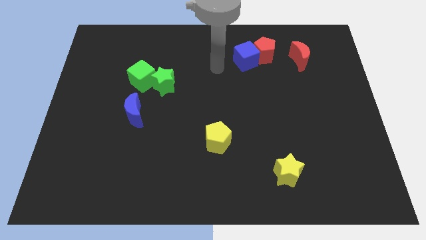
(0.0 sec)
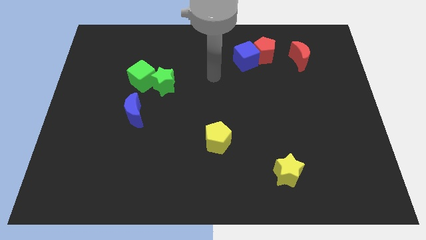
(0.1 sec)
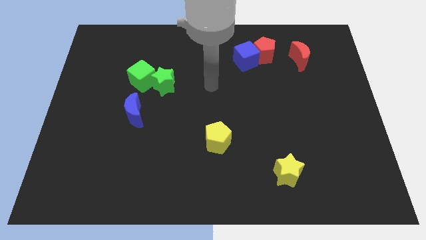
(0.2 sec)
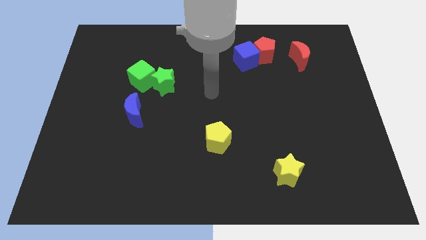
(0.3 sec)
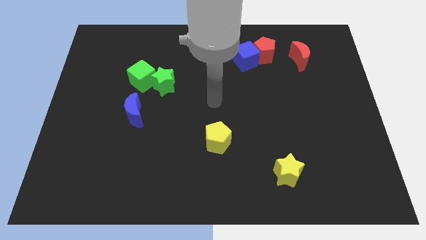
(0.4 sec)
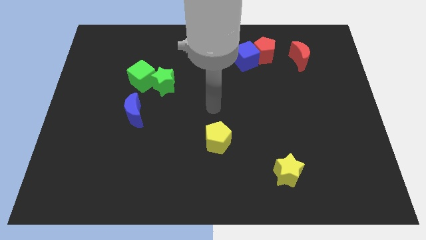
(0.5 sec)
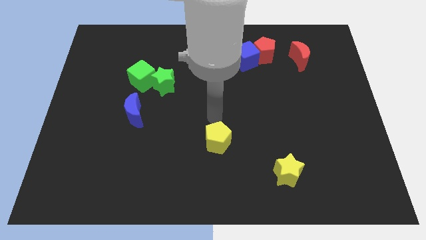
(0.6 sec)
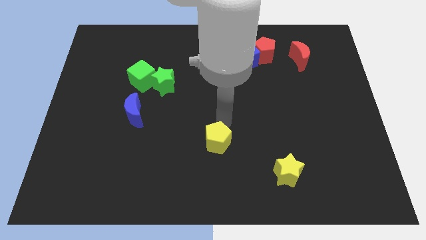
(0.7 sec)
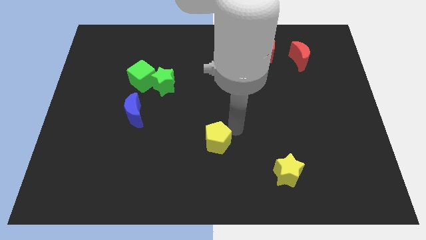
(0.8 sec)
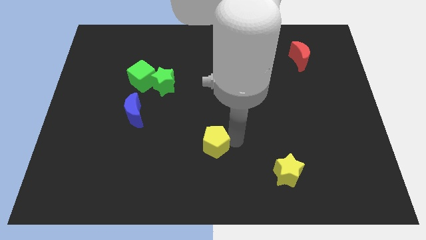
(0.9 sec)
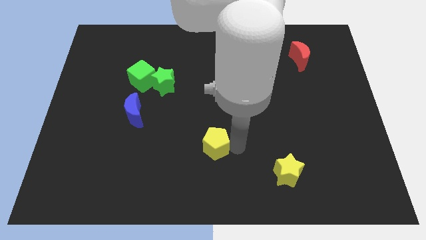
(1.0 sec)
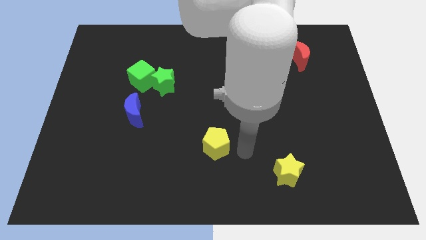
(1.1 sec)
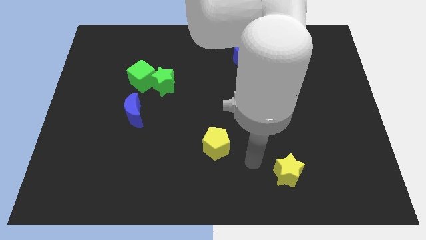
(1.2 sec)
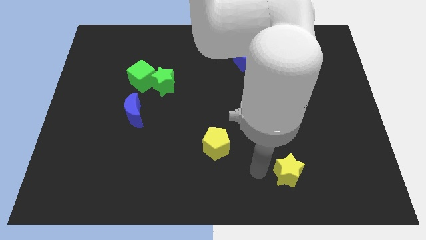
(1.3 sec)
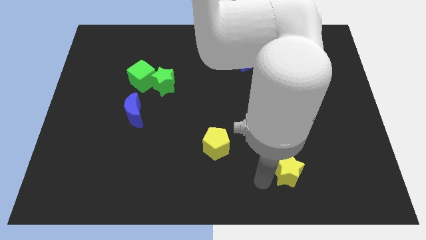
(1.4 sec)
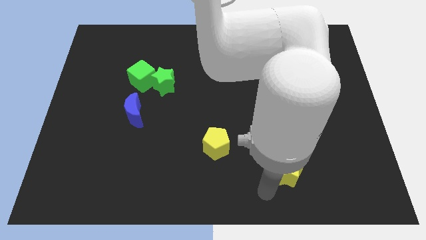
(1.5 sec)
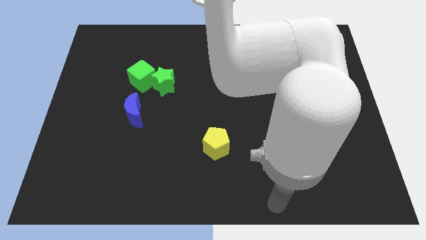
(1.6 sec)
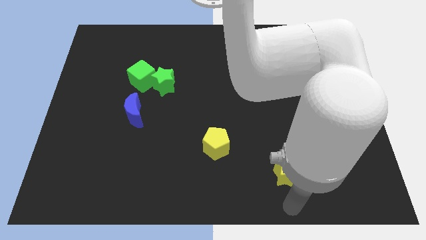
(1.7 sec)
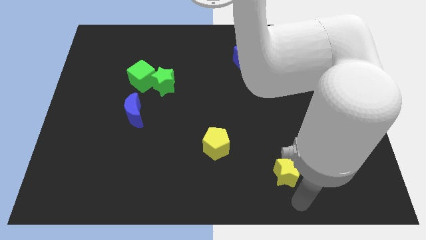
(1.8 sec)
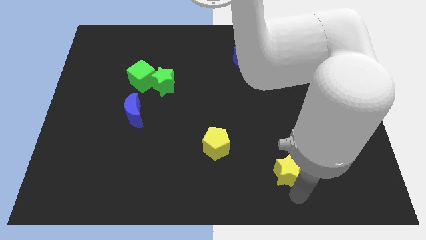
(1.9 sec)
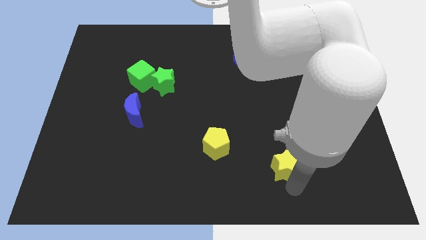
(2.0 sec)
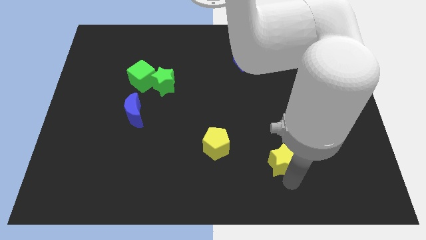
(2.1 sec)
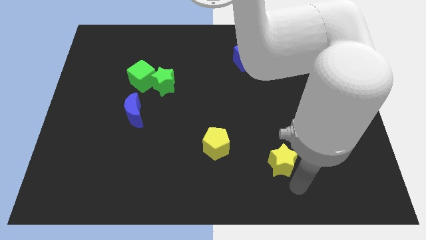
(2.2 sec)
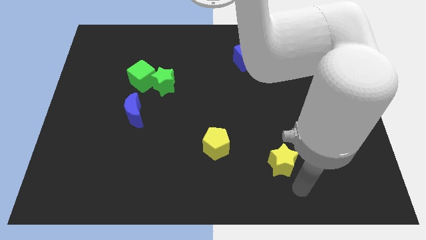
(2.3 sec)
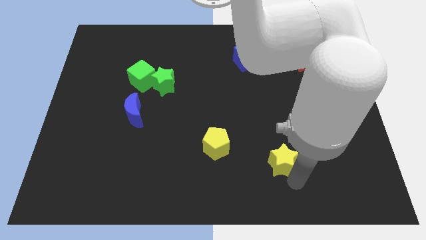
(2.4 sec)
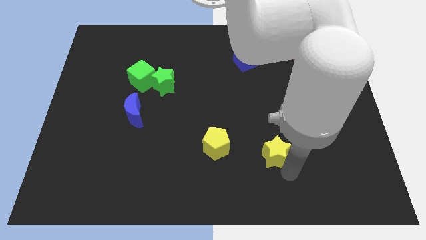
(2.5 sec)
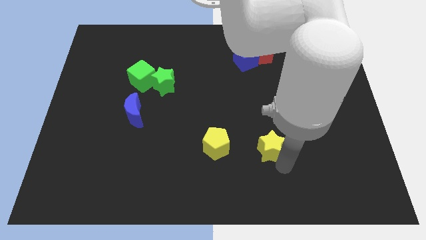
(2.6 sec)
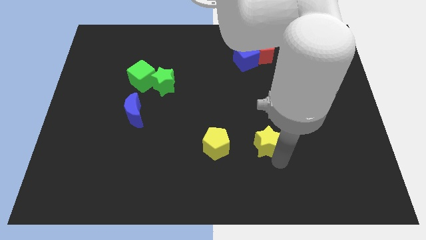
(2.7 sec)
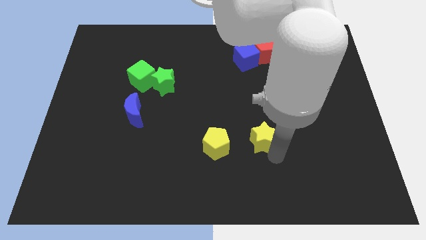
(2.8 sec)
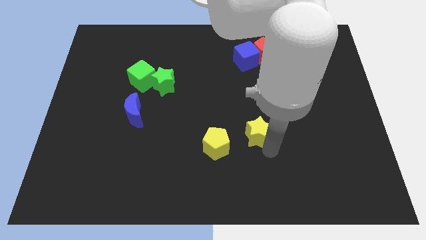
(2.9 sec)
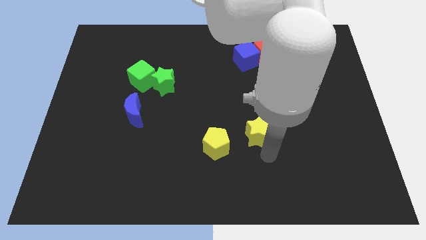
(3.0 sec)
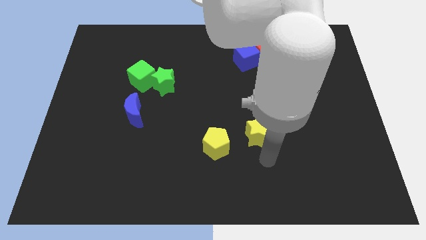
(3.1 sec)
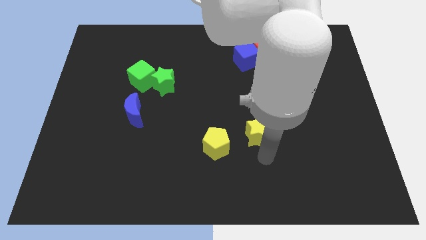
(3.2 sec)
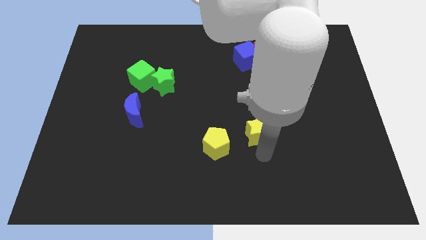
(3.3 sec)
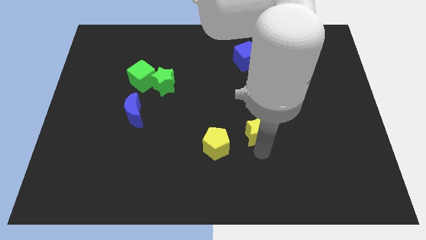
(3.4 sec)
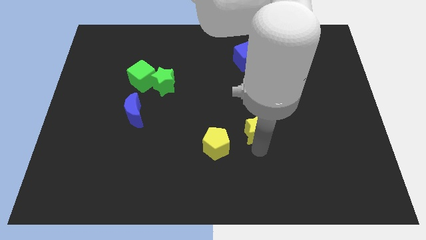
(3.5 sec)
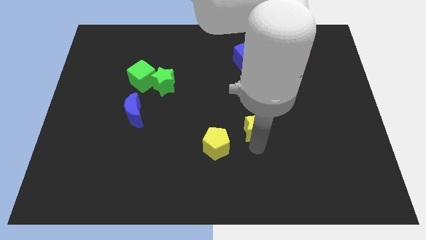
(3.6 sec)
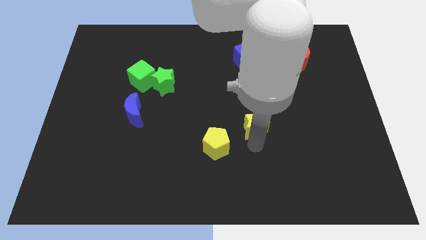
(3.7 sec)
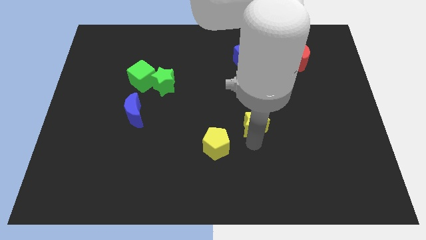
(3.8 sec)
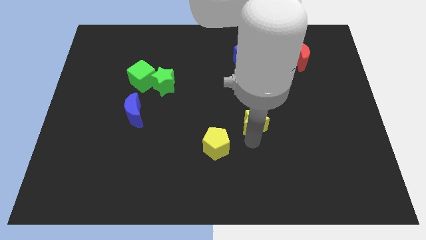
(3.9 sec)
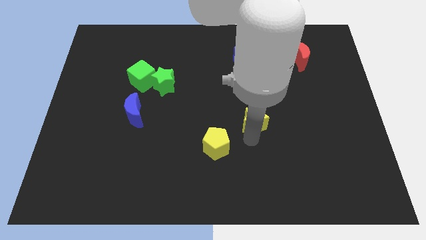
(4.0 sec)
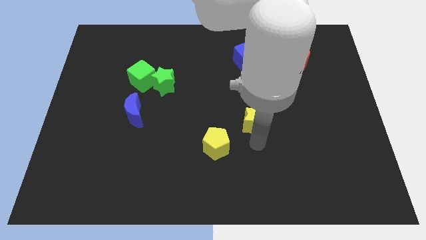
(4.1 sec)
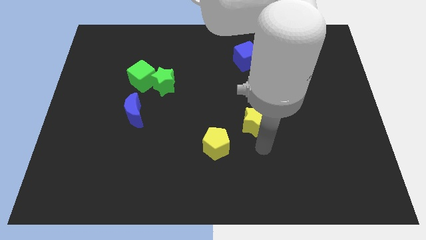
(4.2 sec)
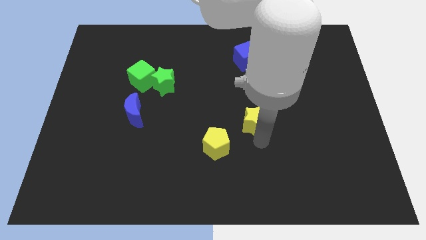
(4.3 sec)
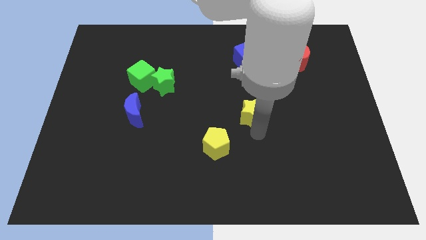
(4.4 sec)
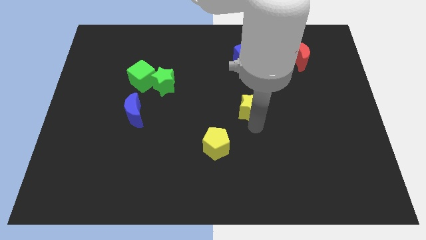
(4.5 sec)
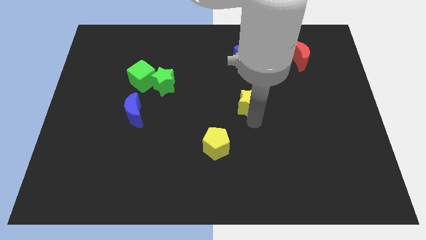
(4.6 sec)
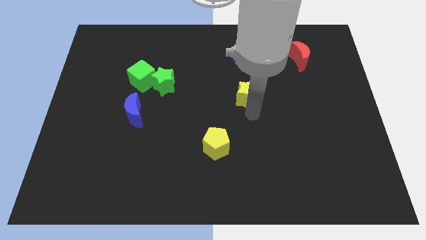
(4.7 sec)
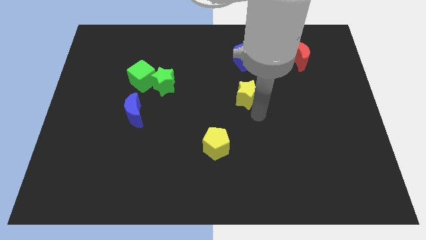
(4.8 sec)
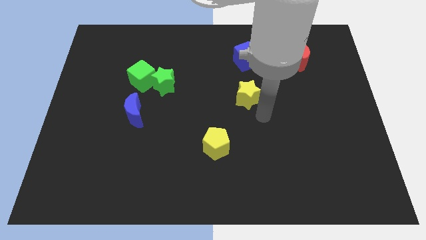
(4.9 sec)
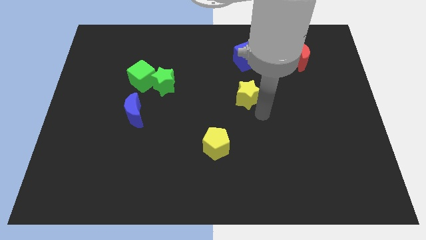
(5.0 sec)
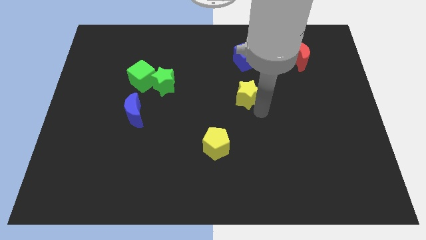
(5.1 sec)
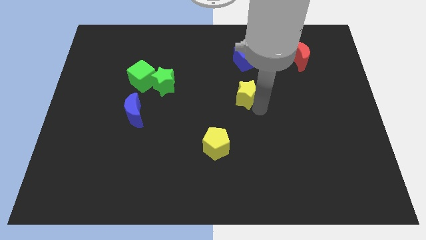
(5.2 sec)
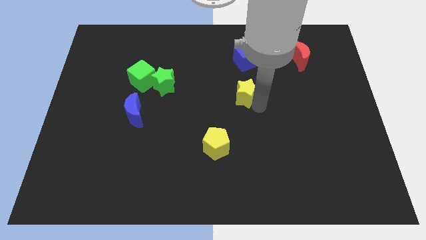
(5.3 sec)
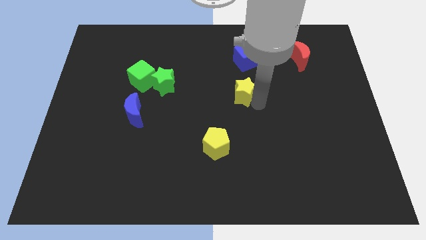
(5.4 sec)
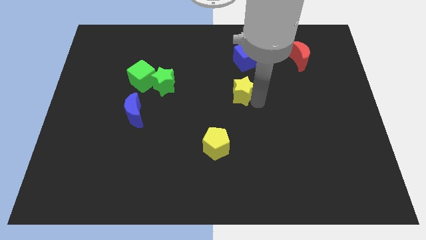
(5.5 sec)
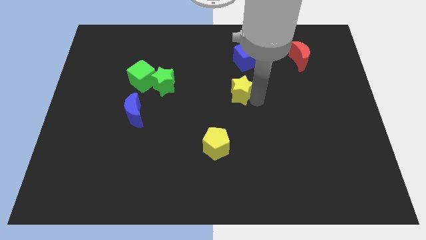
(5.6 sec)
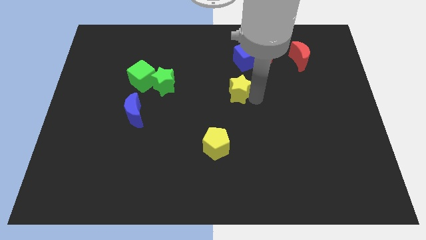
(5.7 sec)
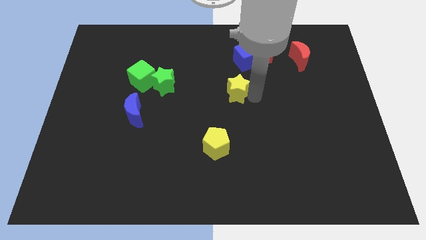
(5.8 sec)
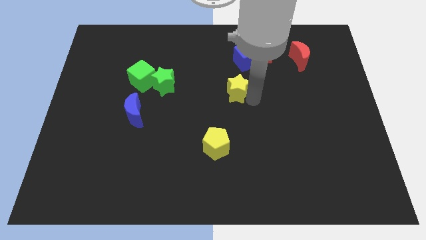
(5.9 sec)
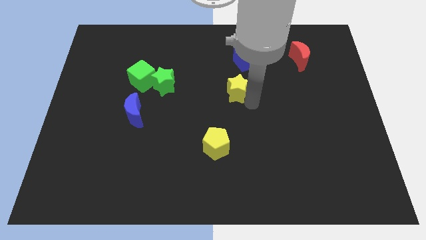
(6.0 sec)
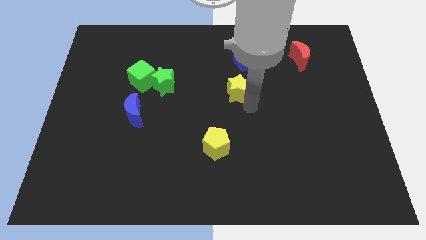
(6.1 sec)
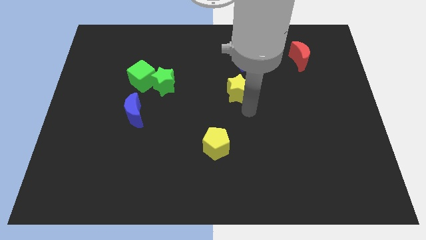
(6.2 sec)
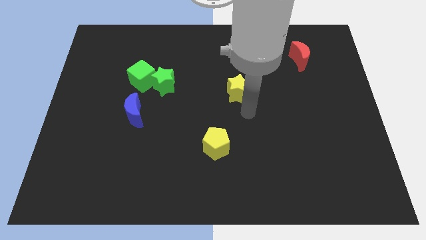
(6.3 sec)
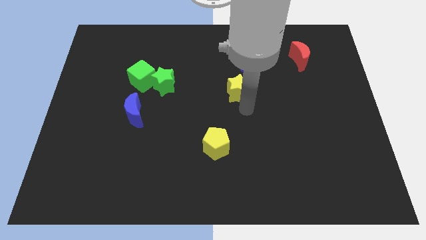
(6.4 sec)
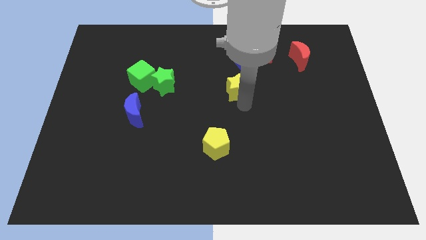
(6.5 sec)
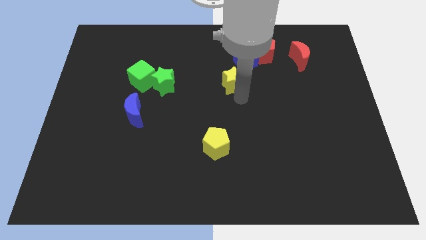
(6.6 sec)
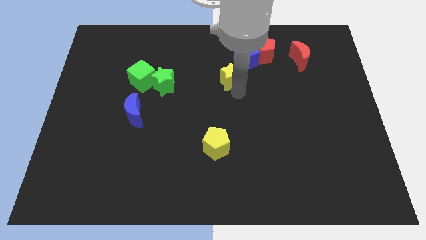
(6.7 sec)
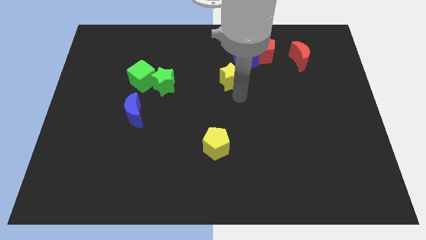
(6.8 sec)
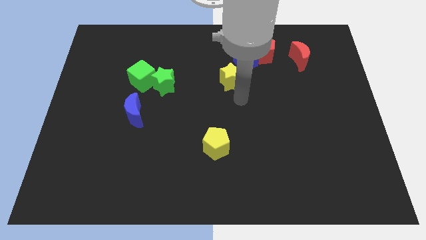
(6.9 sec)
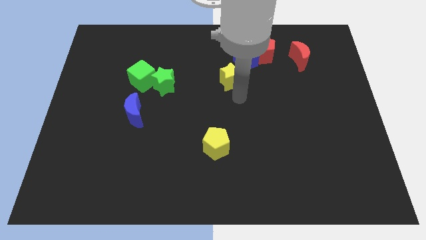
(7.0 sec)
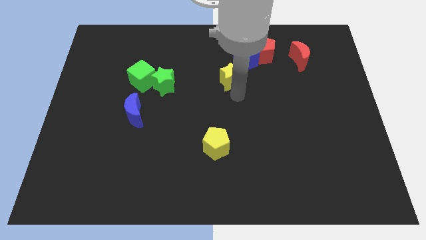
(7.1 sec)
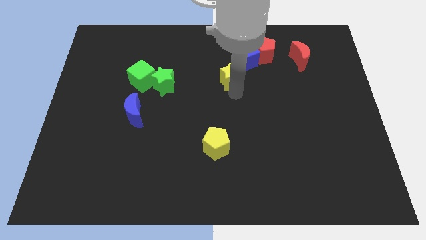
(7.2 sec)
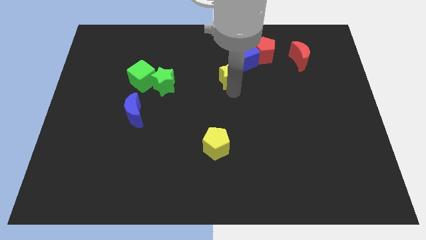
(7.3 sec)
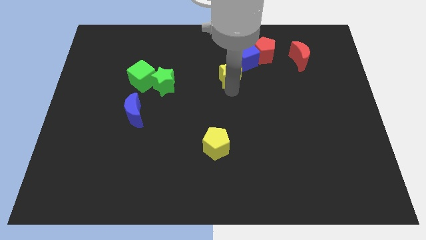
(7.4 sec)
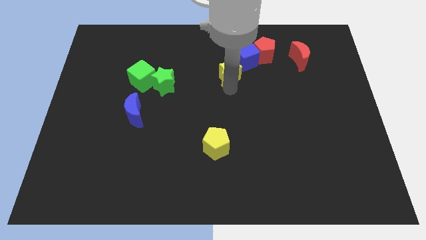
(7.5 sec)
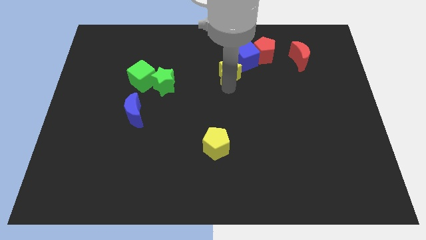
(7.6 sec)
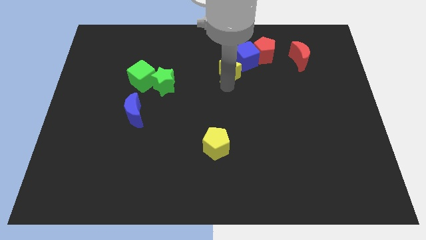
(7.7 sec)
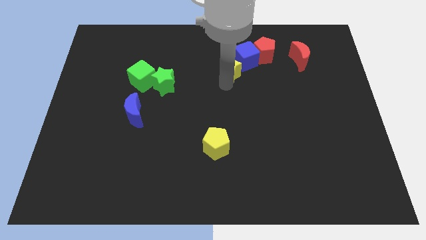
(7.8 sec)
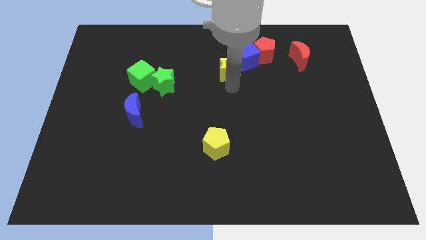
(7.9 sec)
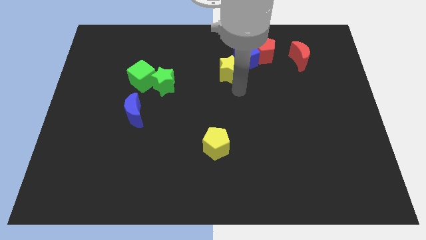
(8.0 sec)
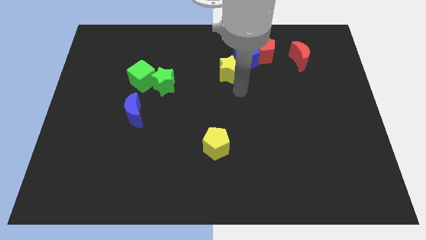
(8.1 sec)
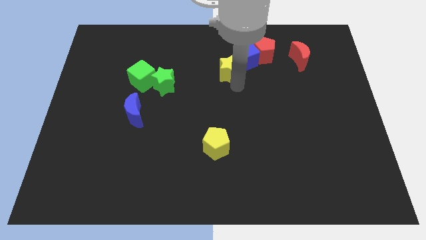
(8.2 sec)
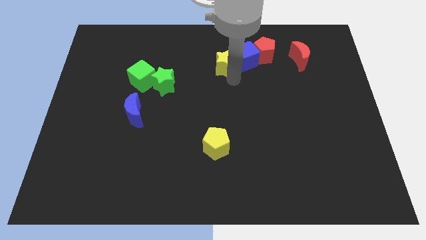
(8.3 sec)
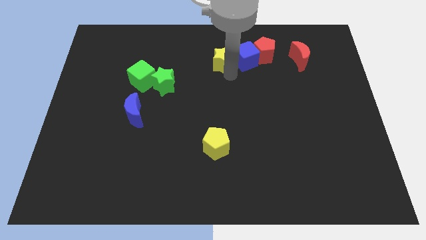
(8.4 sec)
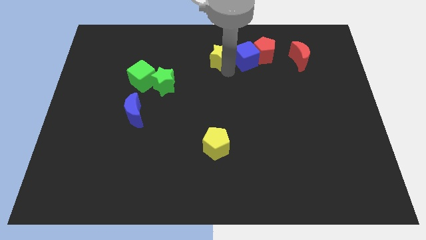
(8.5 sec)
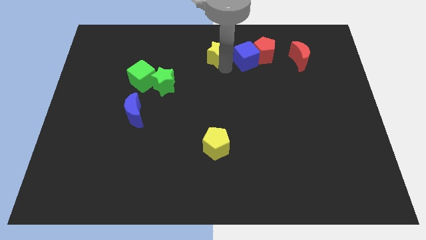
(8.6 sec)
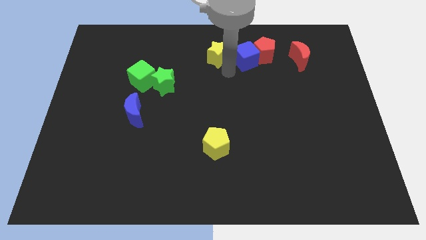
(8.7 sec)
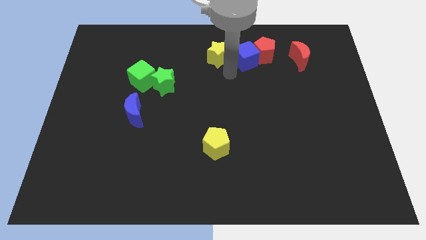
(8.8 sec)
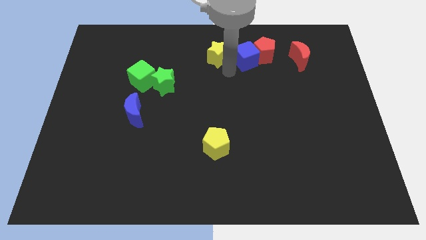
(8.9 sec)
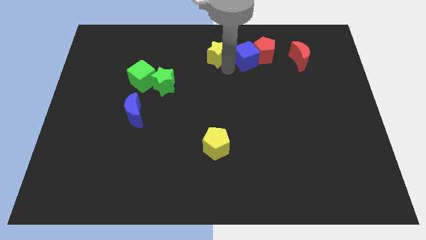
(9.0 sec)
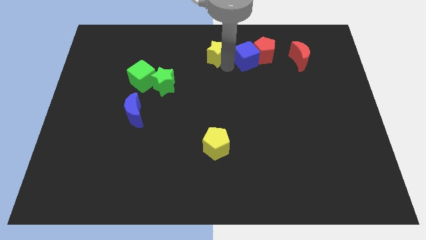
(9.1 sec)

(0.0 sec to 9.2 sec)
put the yellow star to the towards your base
